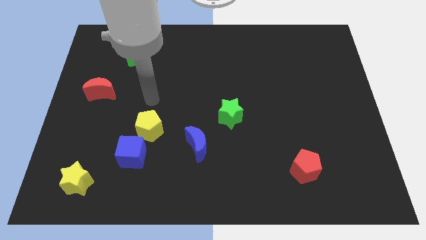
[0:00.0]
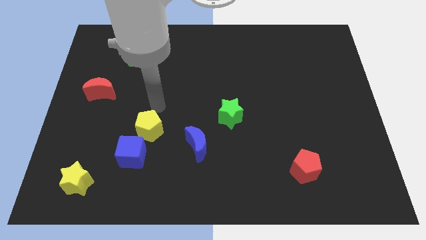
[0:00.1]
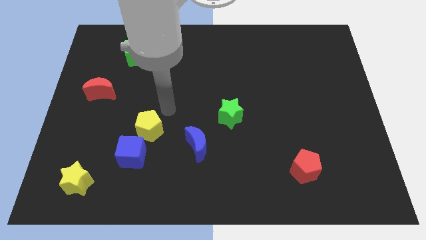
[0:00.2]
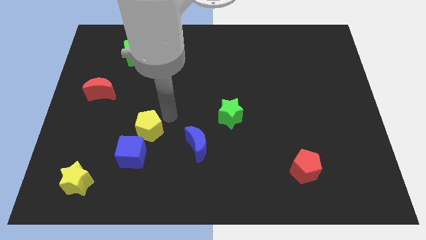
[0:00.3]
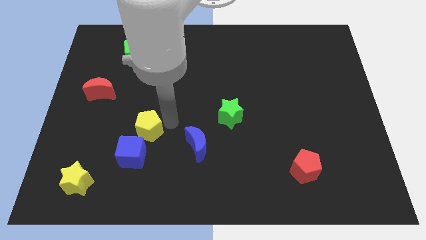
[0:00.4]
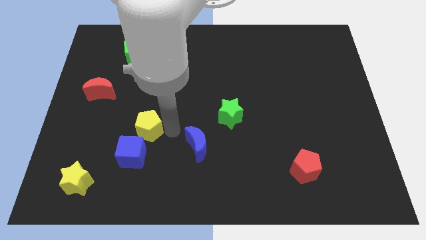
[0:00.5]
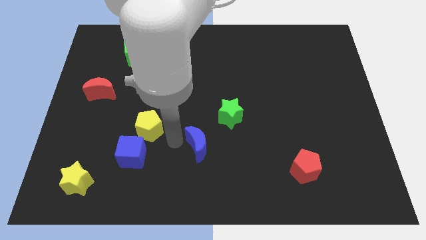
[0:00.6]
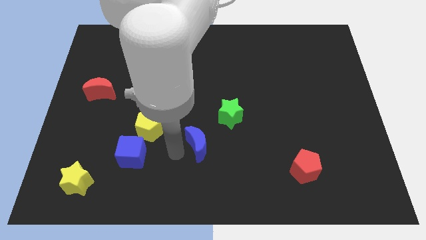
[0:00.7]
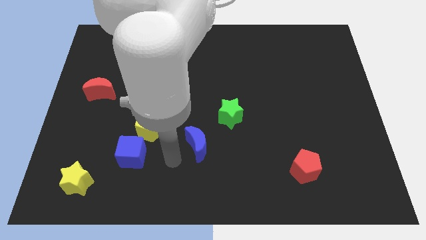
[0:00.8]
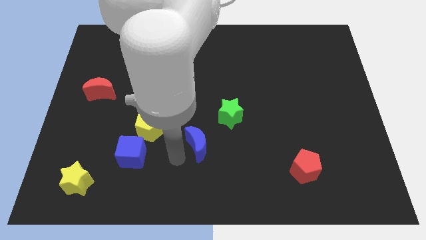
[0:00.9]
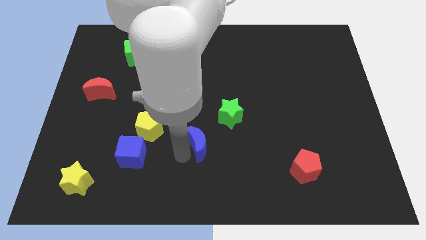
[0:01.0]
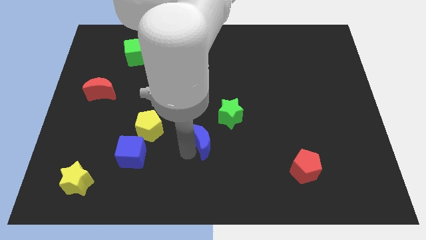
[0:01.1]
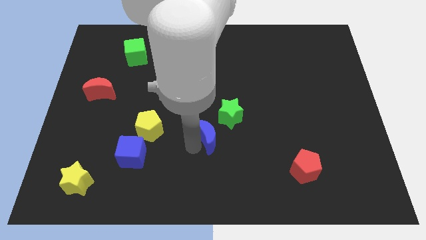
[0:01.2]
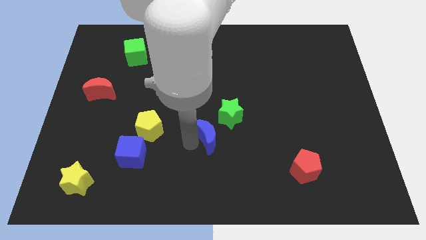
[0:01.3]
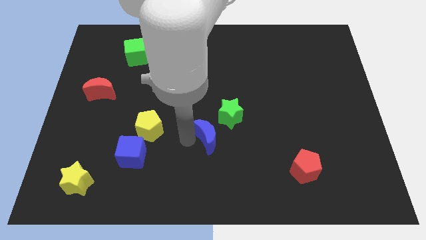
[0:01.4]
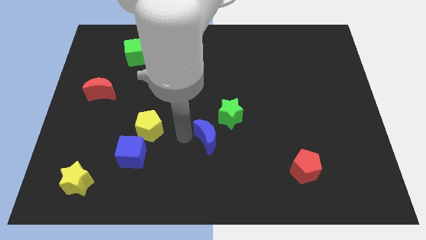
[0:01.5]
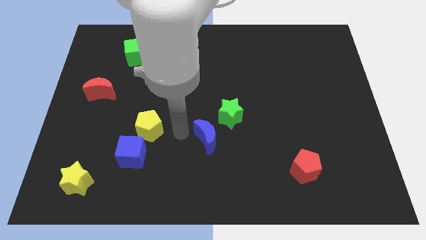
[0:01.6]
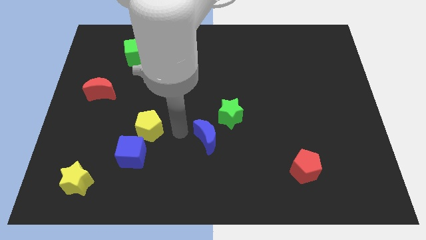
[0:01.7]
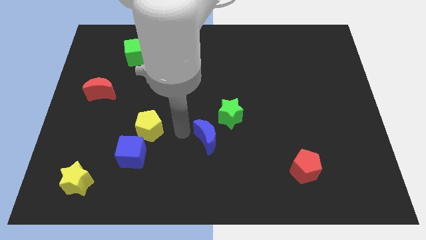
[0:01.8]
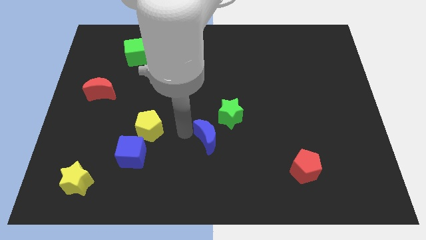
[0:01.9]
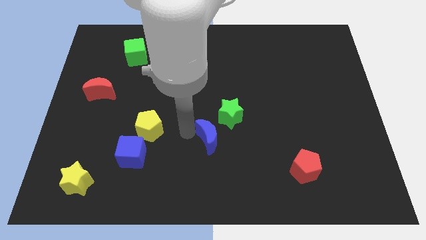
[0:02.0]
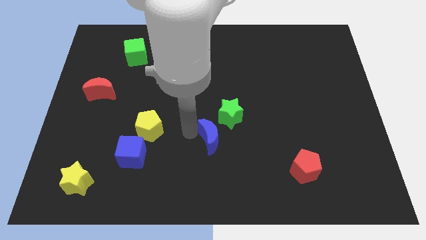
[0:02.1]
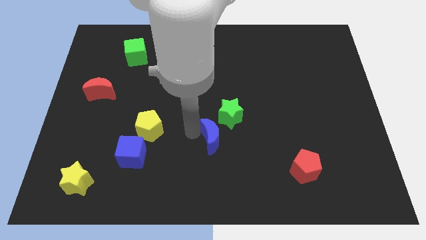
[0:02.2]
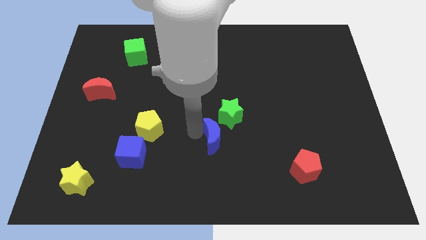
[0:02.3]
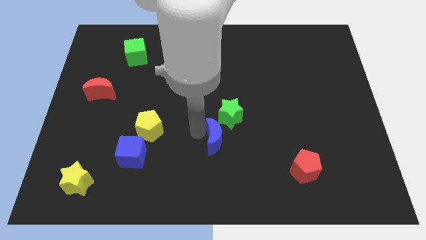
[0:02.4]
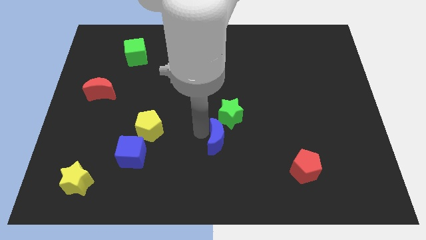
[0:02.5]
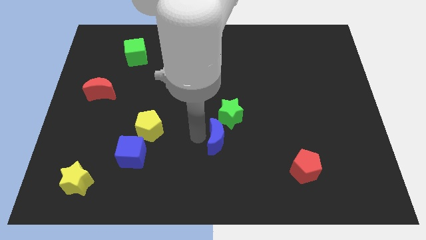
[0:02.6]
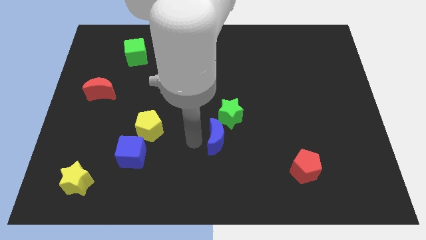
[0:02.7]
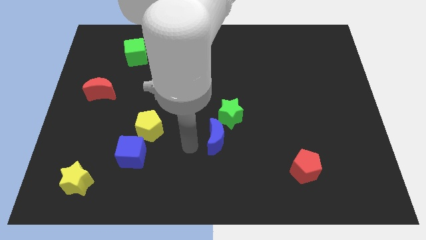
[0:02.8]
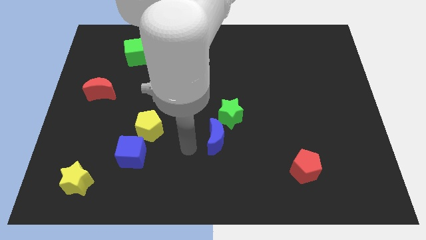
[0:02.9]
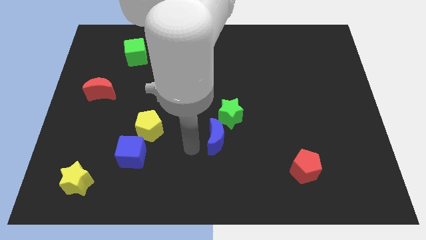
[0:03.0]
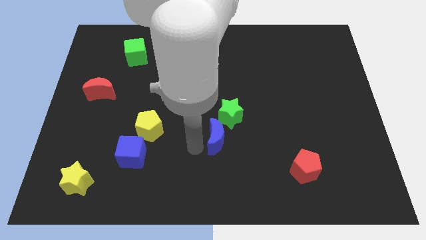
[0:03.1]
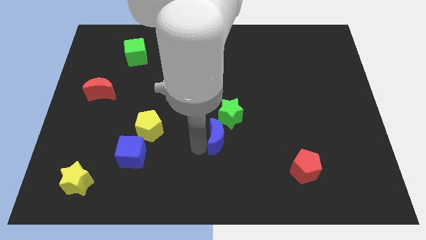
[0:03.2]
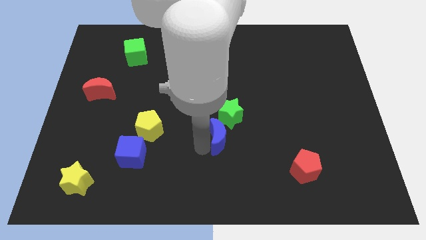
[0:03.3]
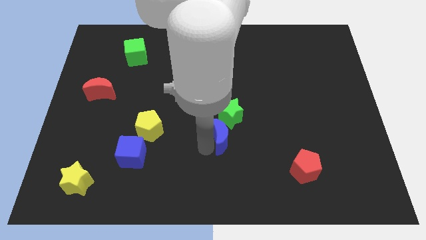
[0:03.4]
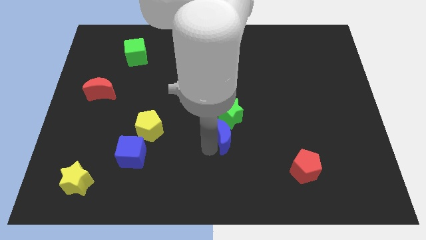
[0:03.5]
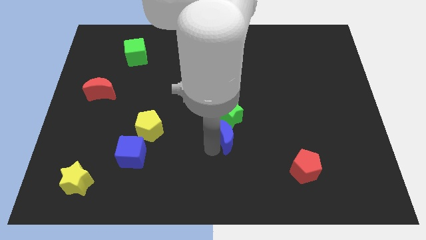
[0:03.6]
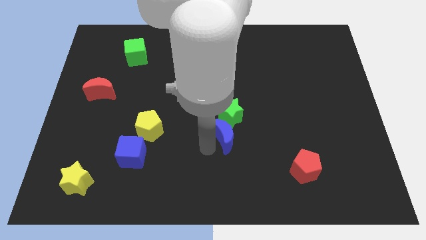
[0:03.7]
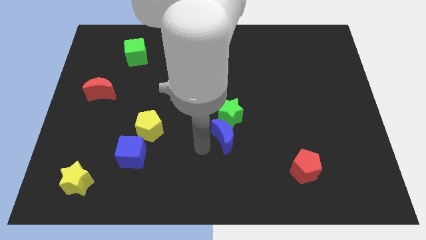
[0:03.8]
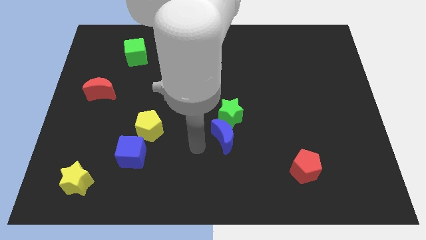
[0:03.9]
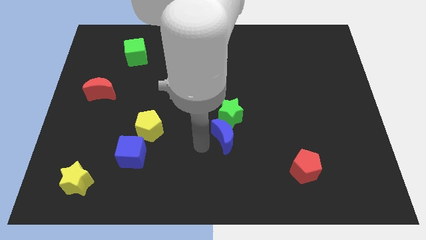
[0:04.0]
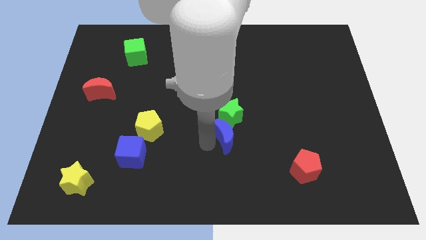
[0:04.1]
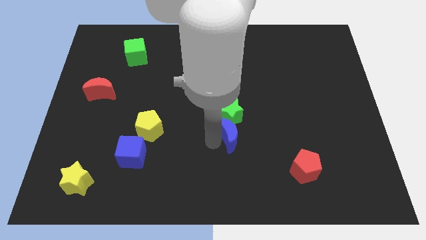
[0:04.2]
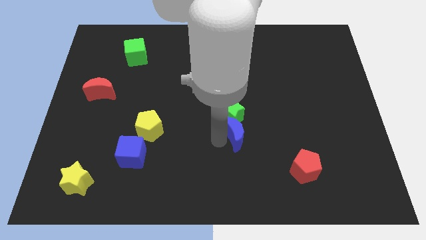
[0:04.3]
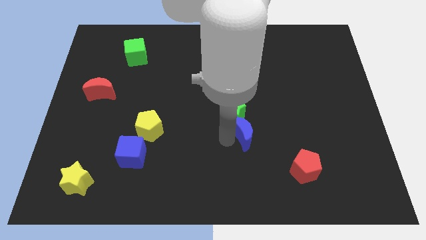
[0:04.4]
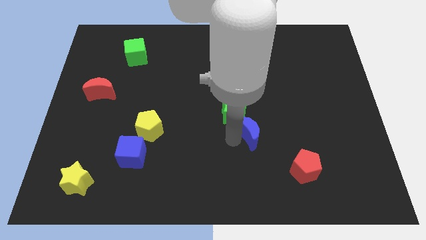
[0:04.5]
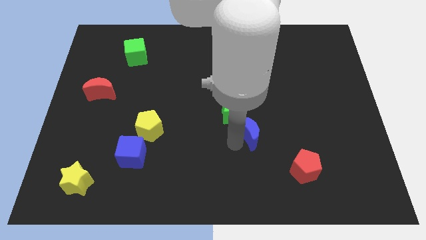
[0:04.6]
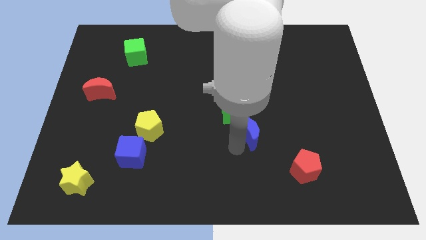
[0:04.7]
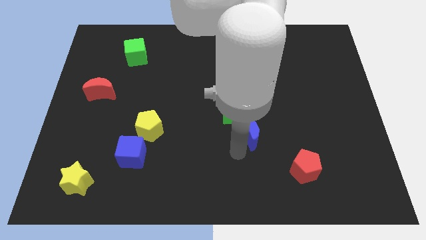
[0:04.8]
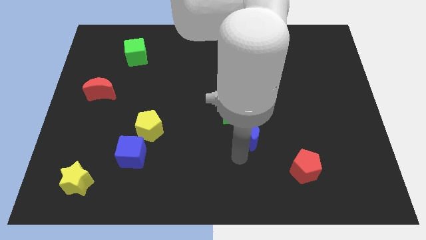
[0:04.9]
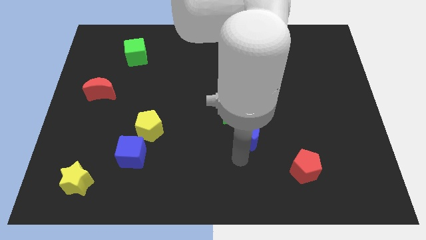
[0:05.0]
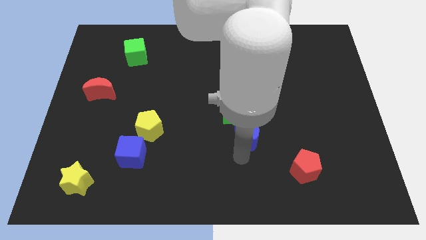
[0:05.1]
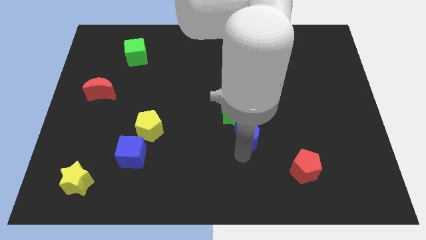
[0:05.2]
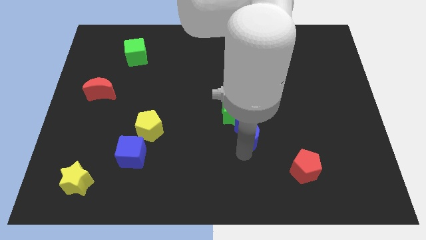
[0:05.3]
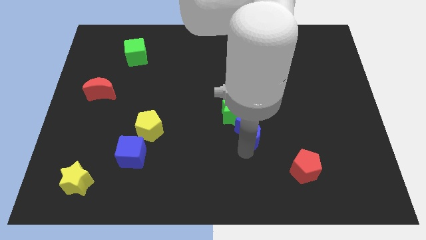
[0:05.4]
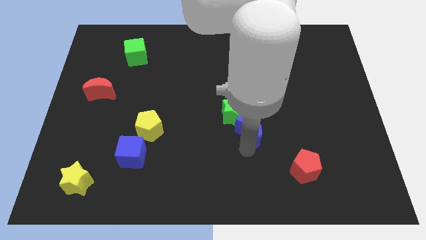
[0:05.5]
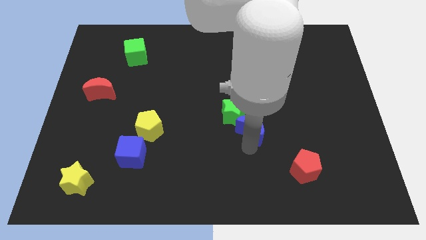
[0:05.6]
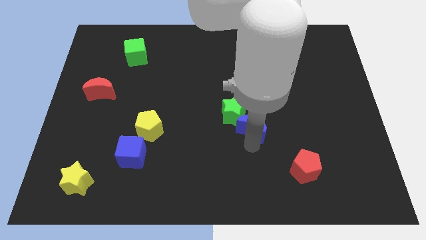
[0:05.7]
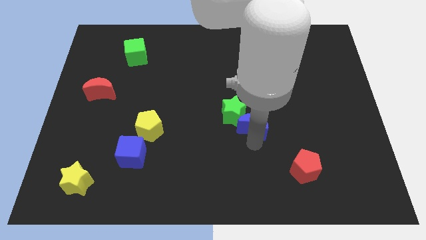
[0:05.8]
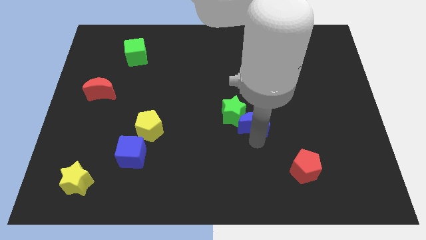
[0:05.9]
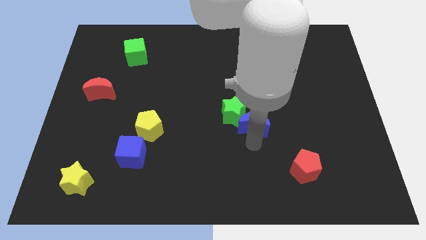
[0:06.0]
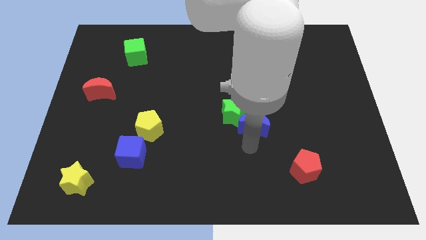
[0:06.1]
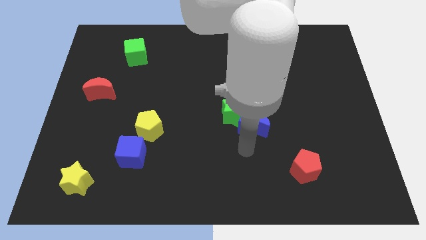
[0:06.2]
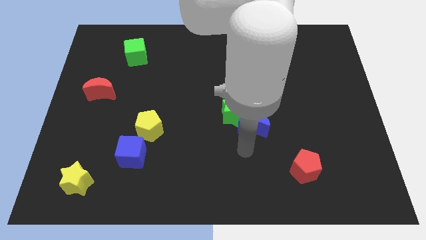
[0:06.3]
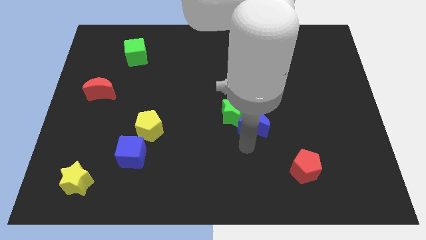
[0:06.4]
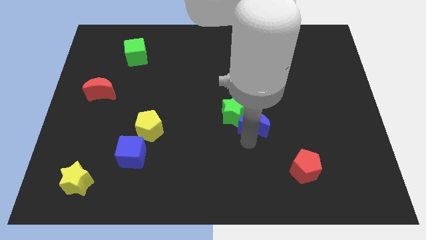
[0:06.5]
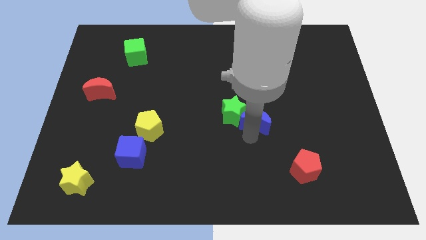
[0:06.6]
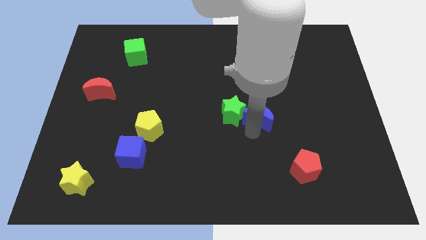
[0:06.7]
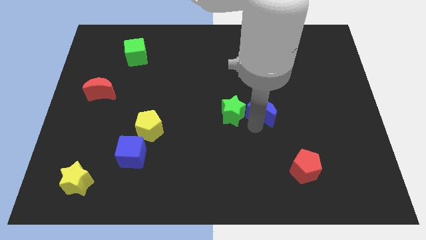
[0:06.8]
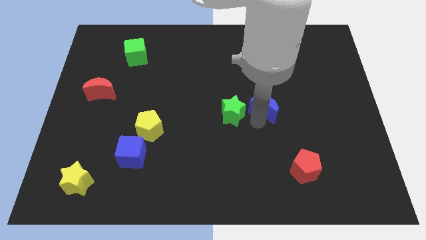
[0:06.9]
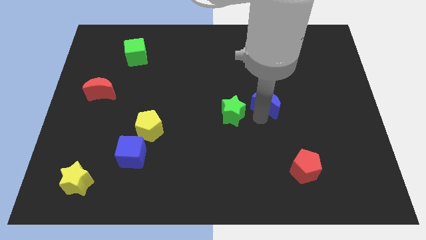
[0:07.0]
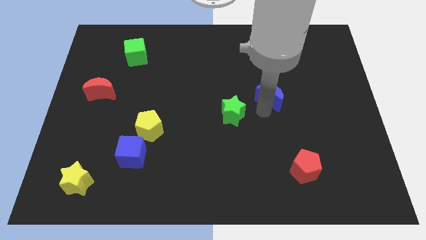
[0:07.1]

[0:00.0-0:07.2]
slide the blue moon up and to the right diagonally

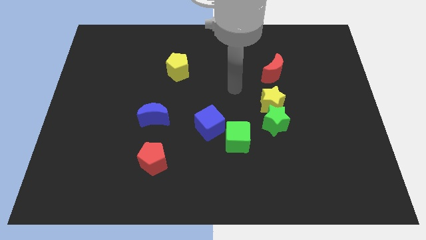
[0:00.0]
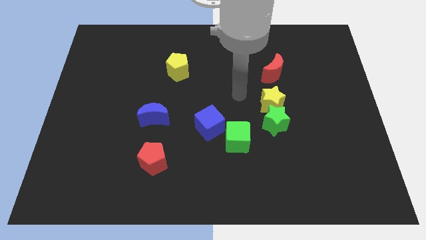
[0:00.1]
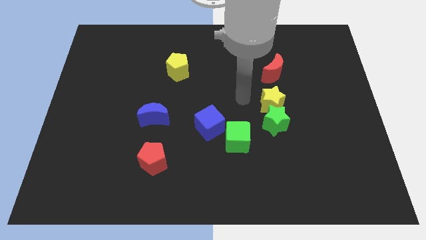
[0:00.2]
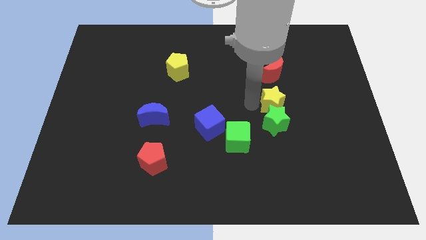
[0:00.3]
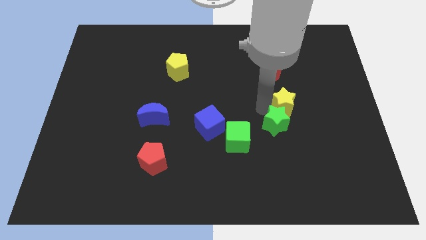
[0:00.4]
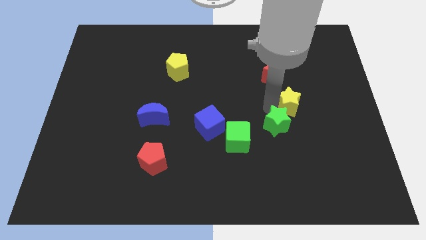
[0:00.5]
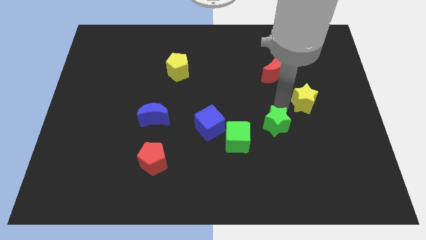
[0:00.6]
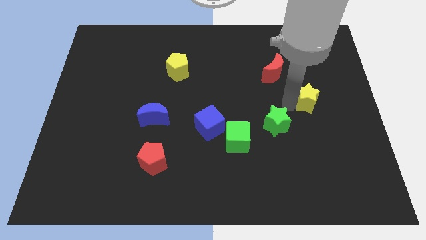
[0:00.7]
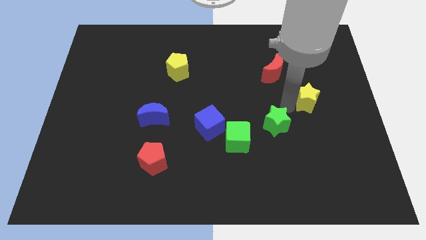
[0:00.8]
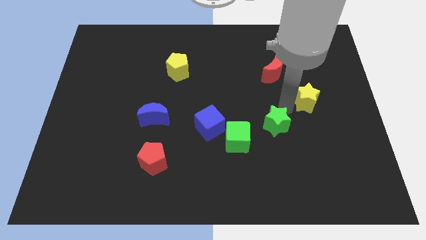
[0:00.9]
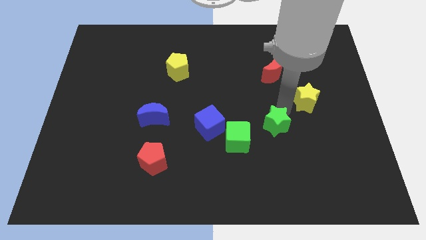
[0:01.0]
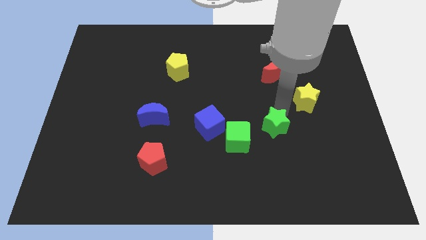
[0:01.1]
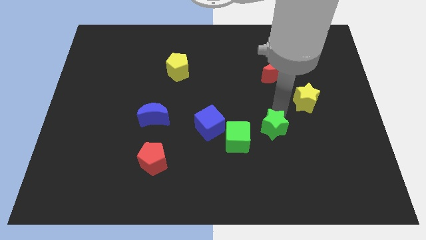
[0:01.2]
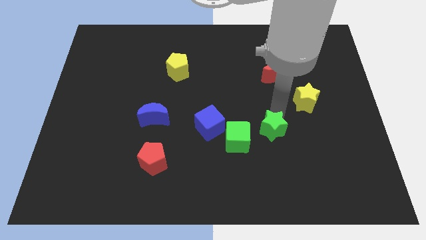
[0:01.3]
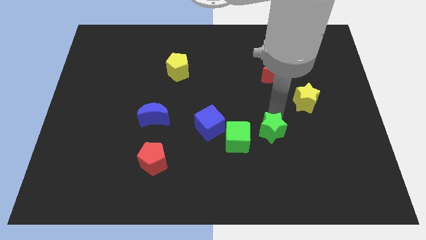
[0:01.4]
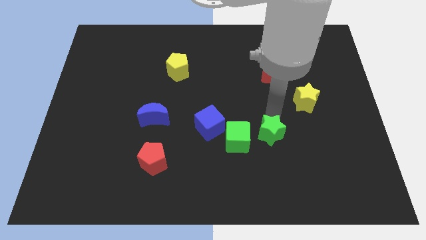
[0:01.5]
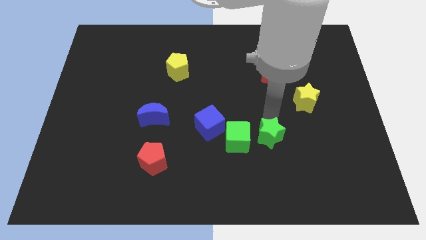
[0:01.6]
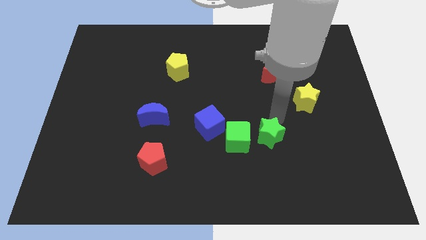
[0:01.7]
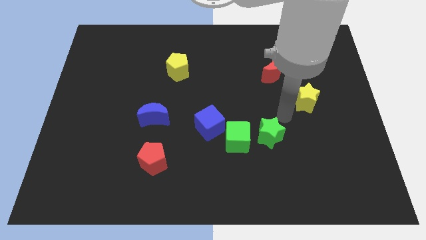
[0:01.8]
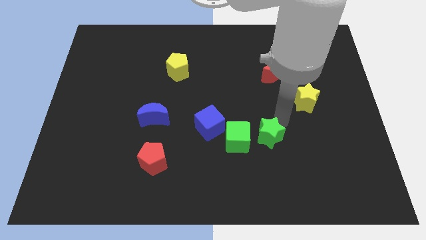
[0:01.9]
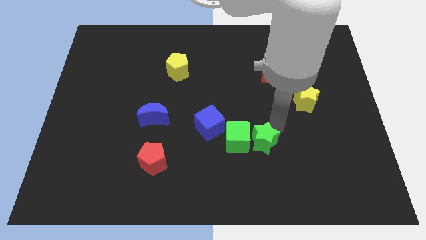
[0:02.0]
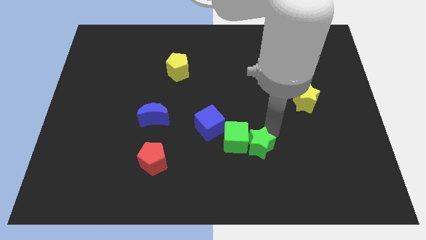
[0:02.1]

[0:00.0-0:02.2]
slightly move the green star down and left diagonally
